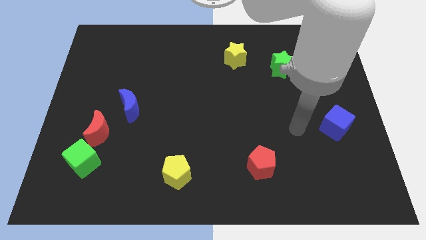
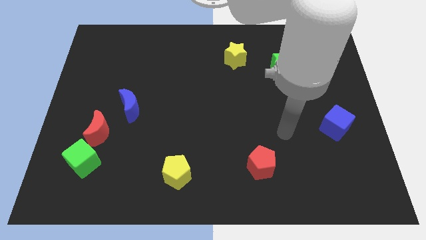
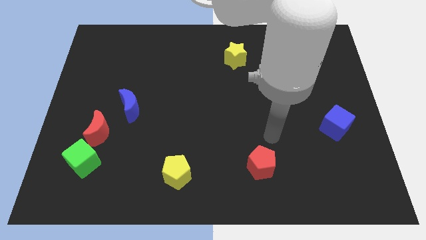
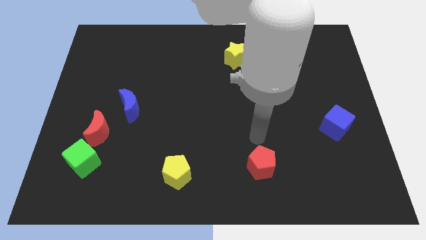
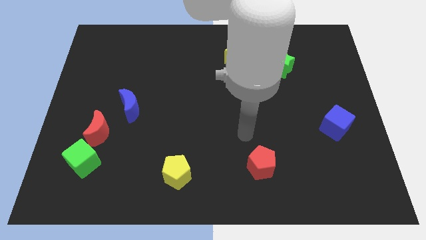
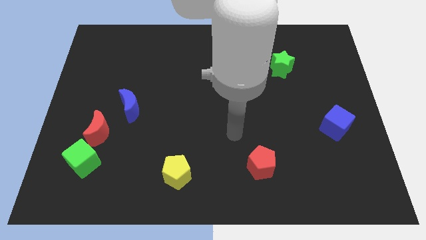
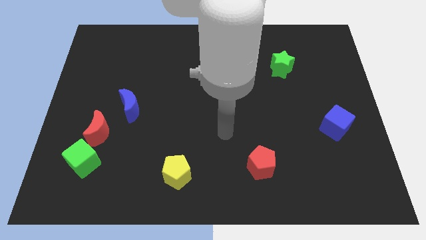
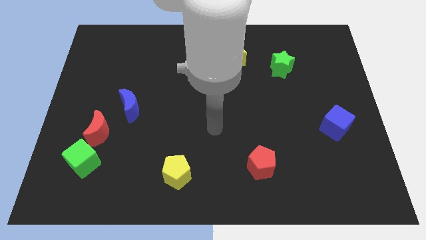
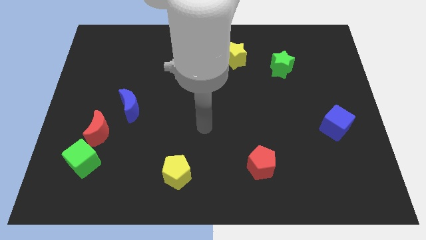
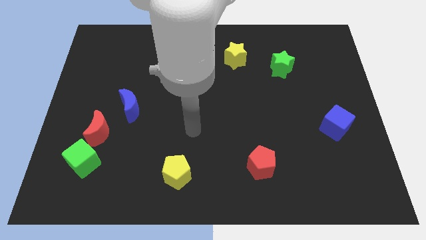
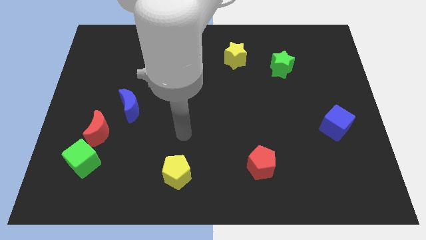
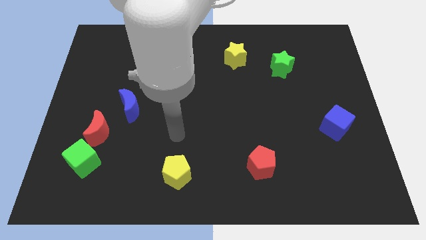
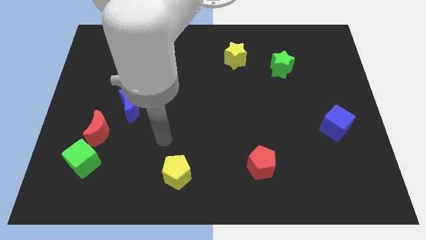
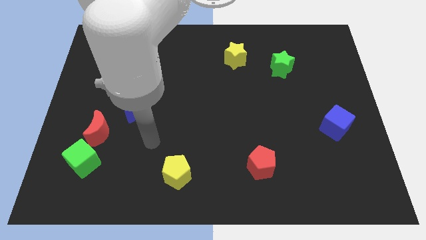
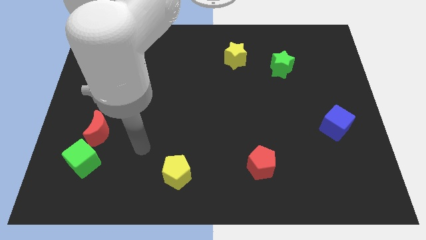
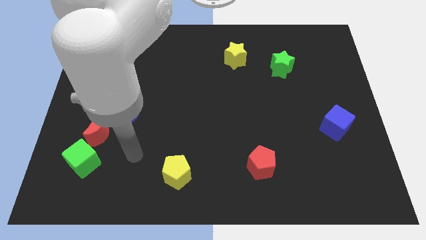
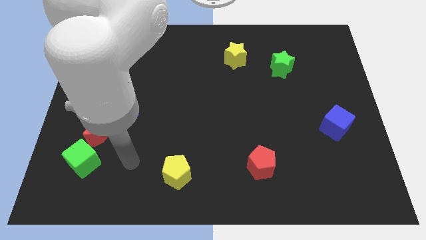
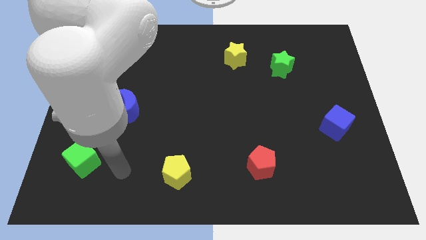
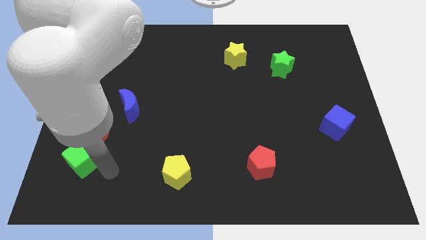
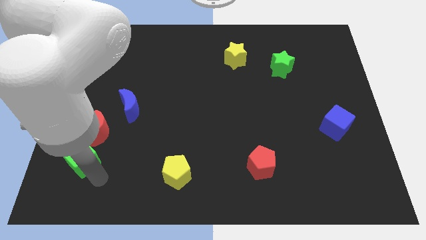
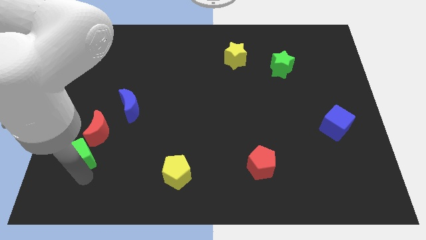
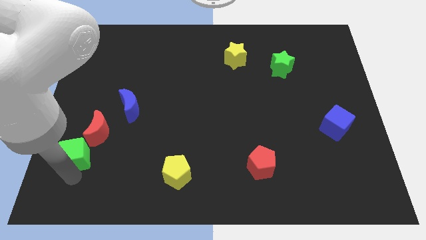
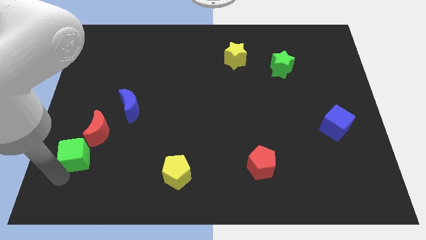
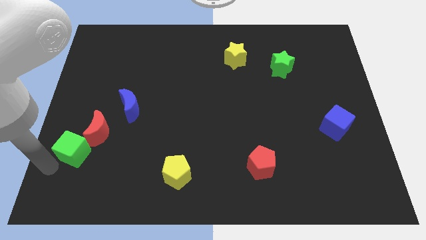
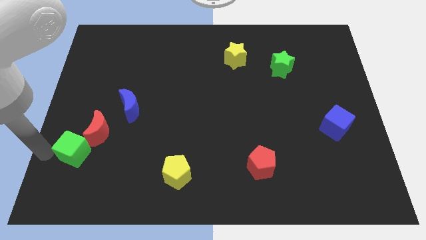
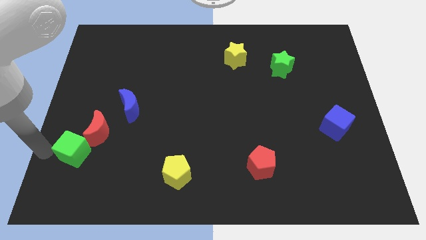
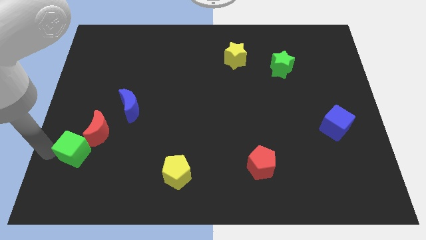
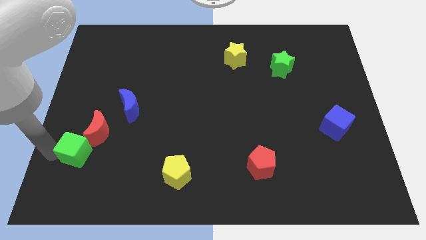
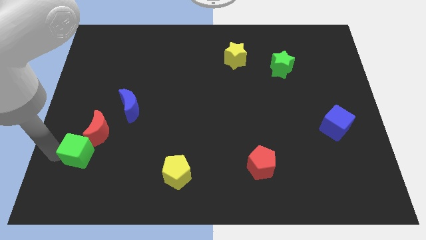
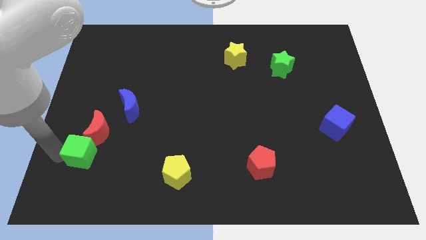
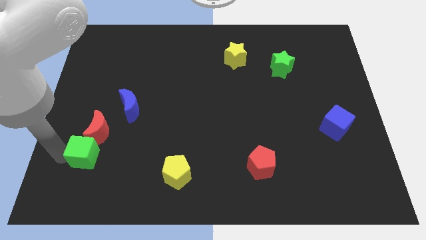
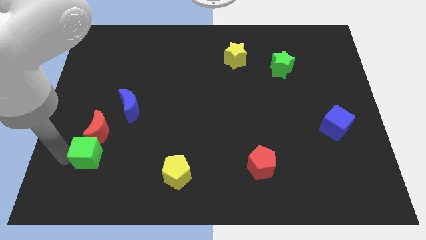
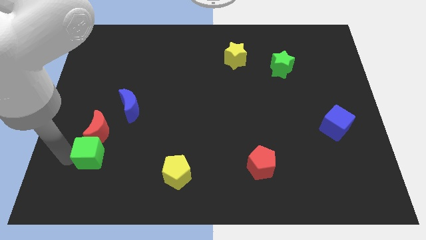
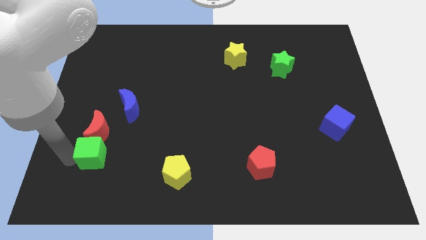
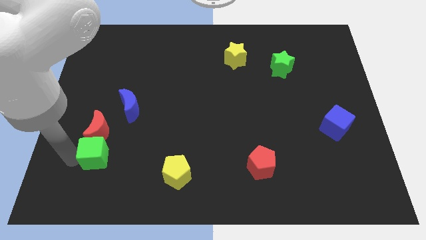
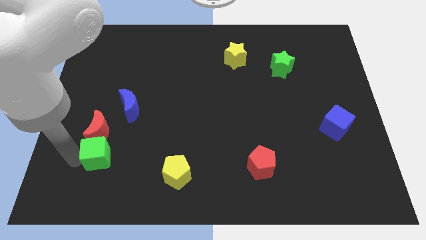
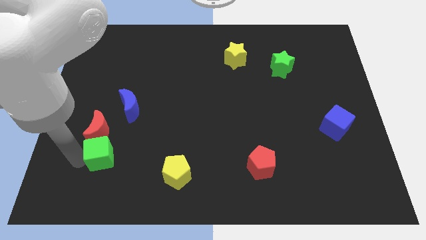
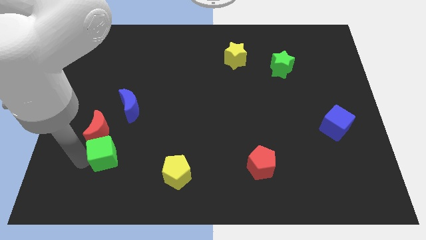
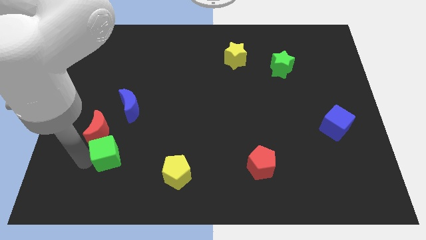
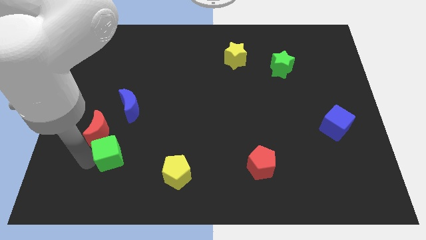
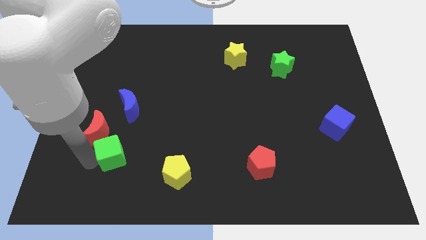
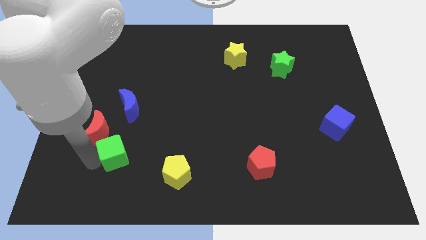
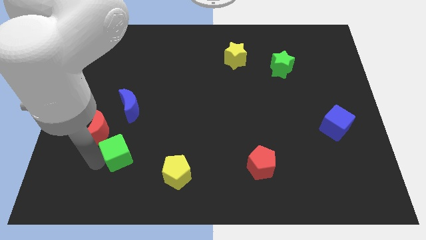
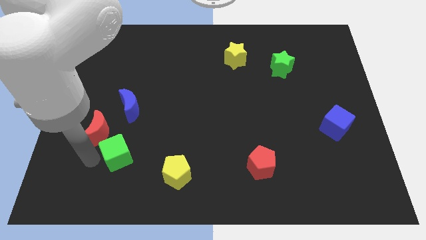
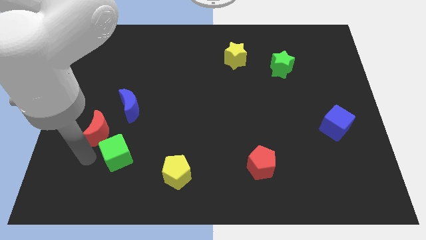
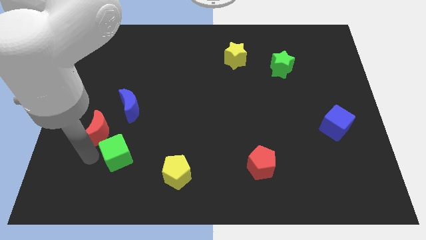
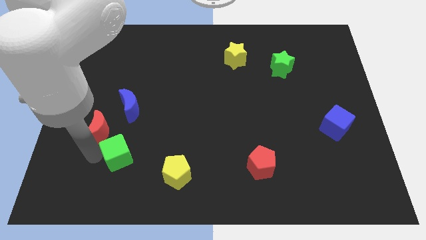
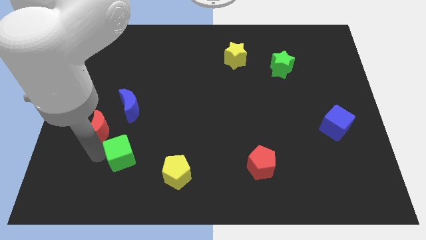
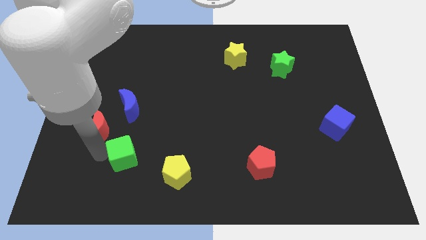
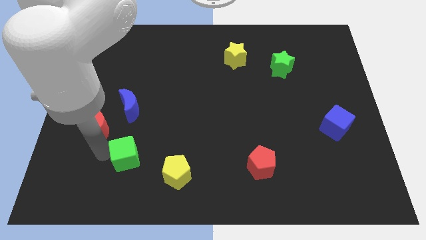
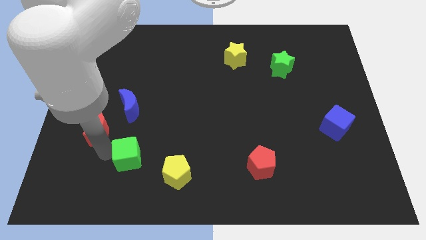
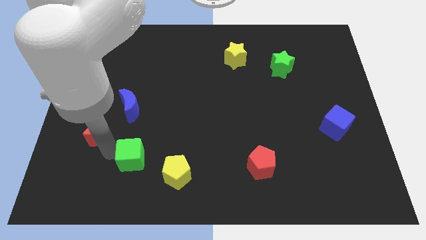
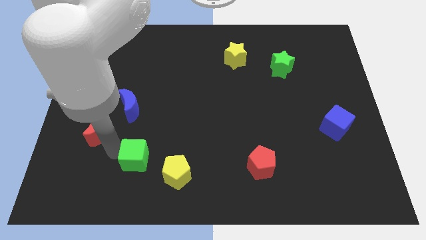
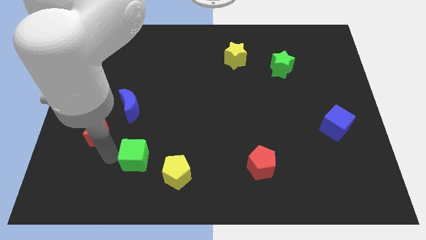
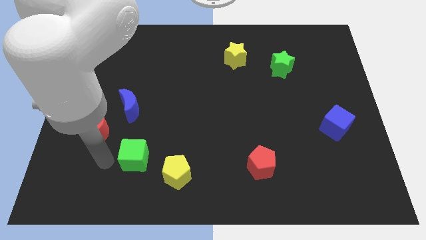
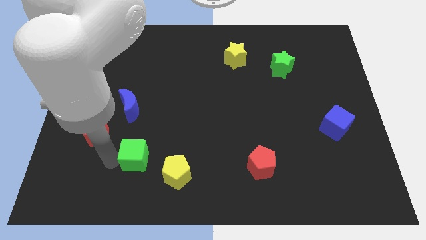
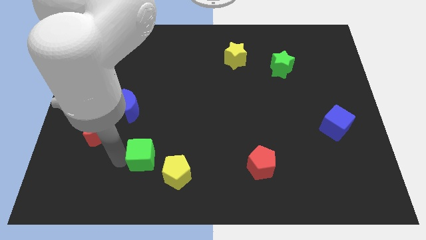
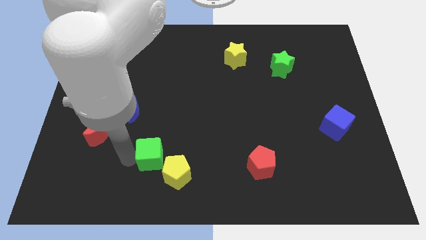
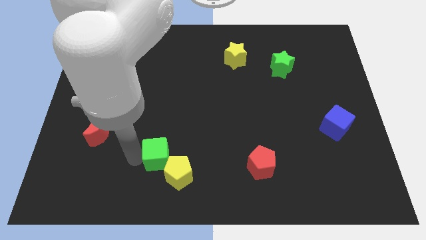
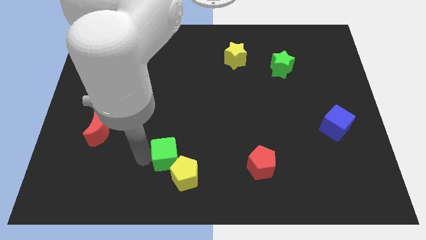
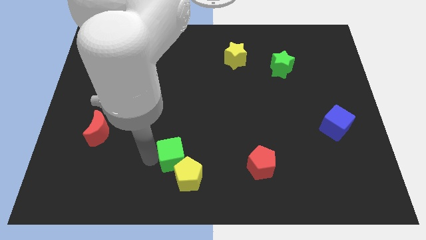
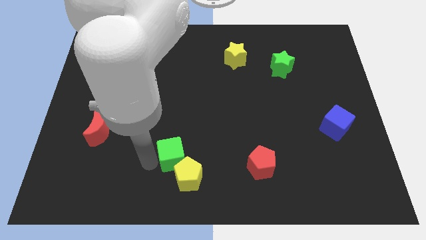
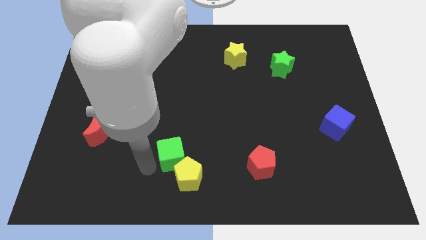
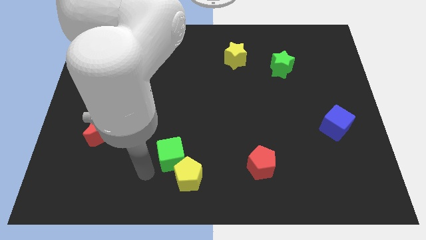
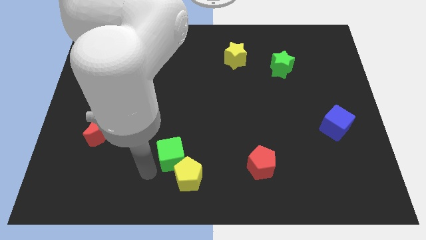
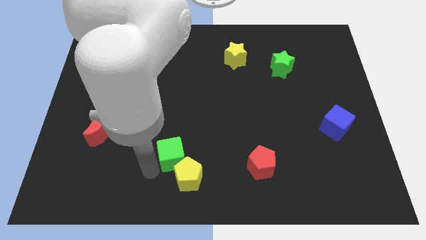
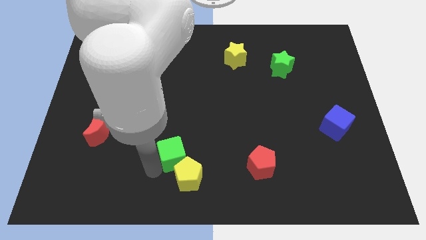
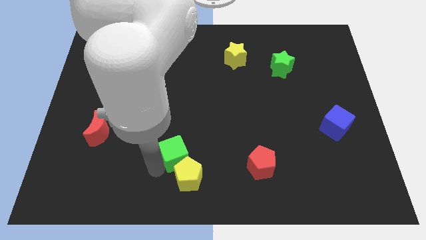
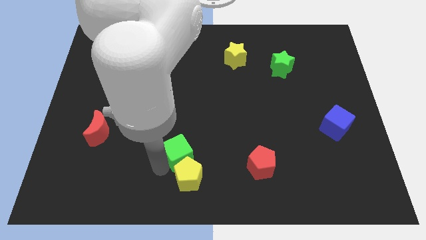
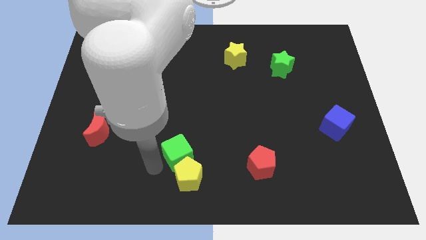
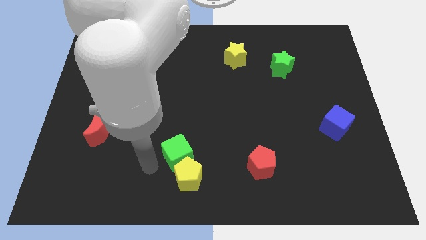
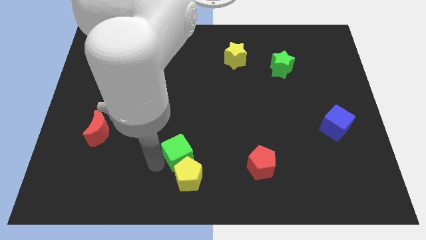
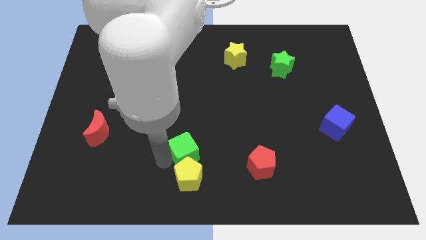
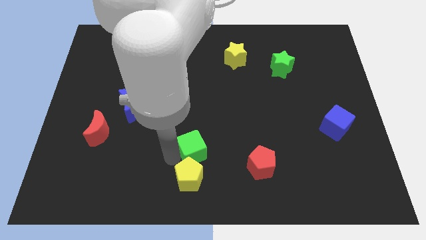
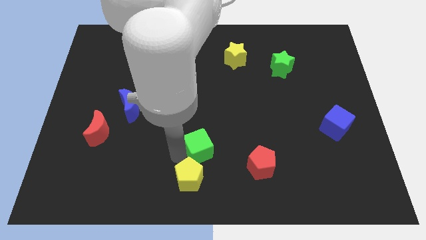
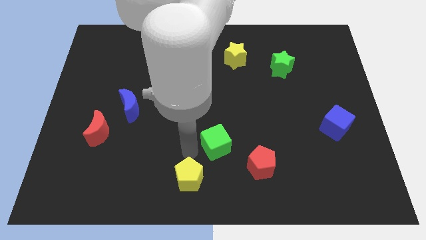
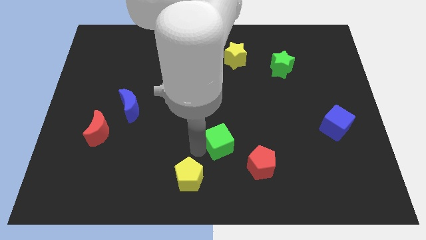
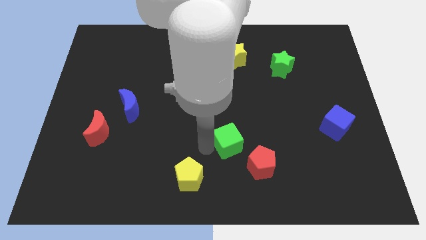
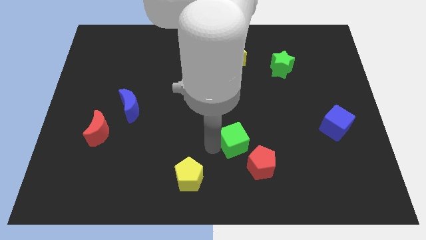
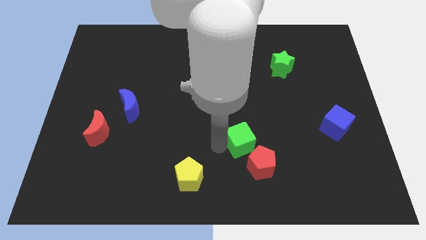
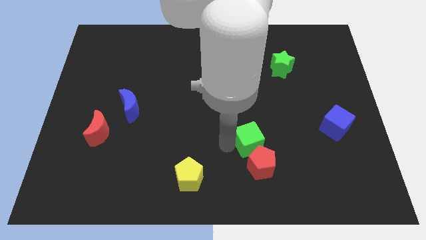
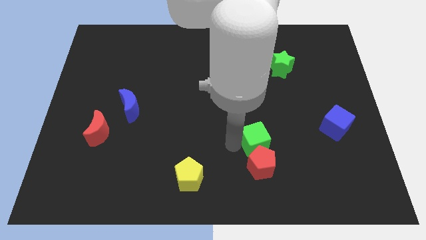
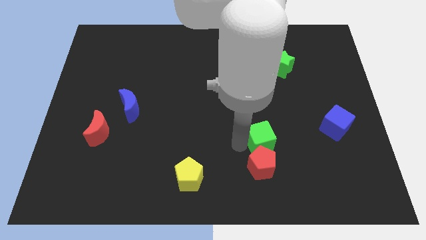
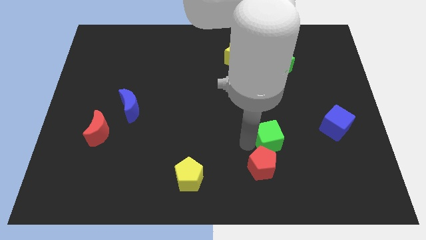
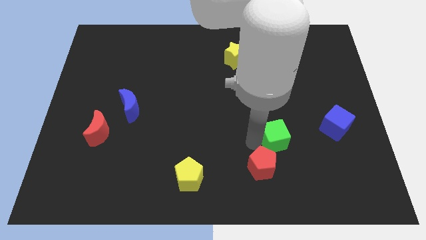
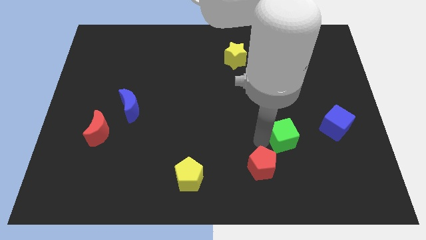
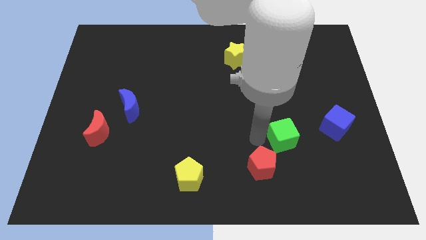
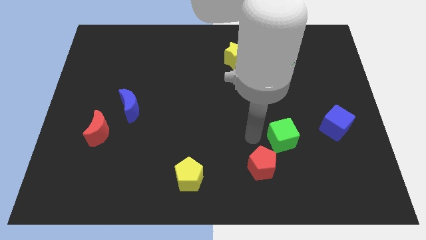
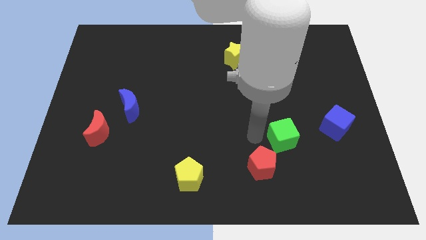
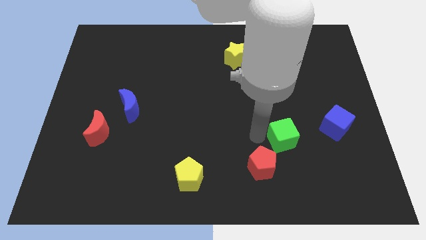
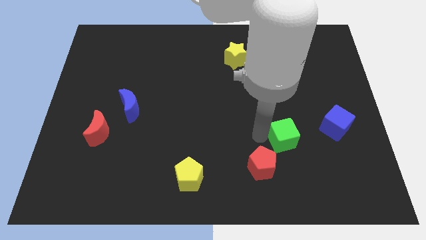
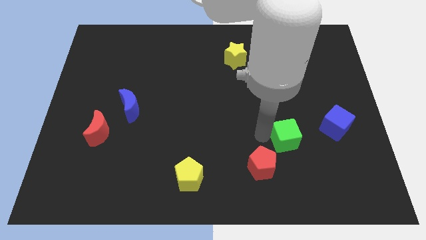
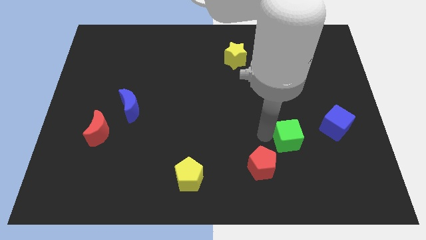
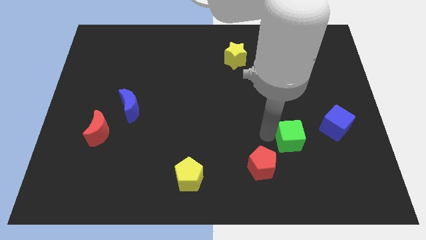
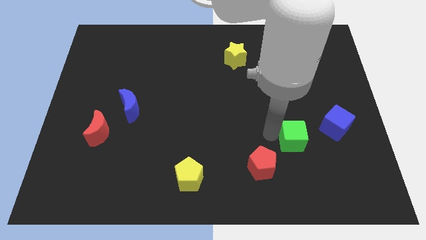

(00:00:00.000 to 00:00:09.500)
push the green cube to the bottom left of the blue cube
